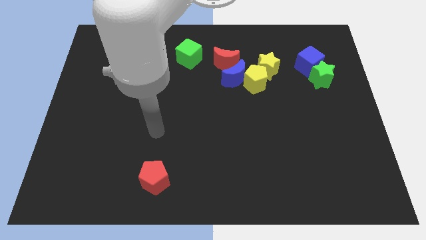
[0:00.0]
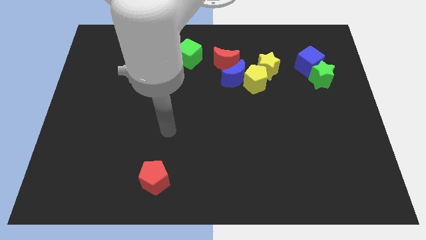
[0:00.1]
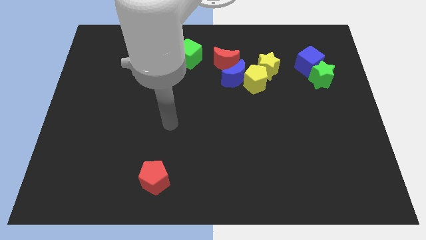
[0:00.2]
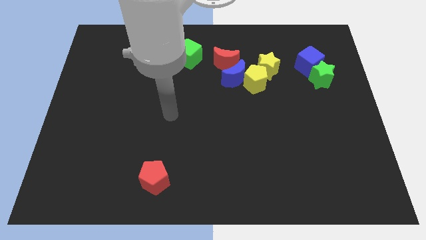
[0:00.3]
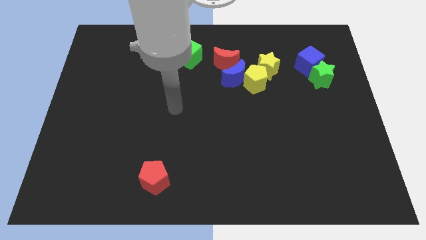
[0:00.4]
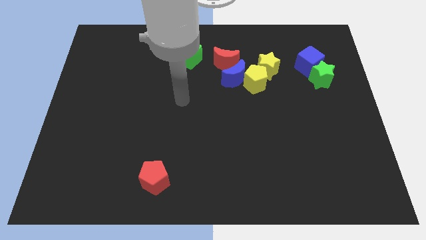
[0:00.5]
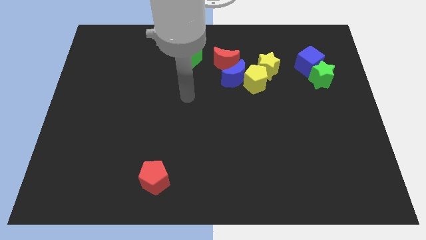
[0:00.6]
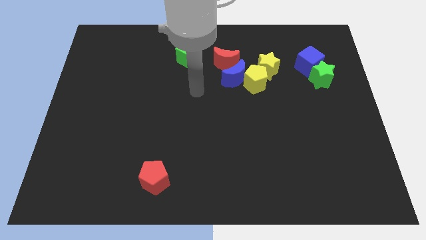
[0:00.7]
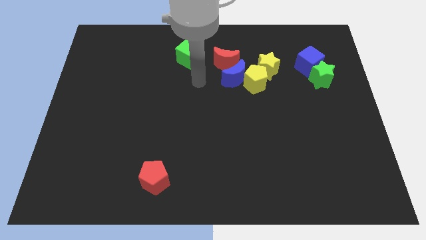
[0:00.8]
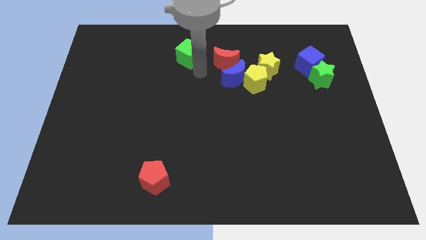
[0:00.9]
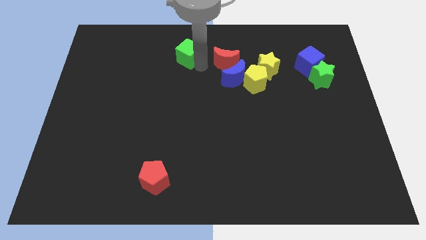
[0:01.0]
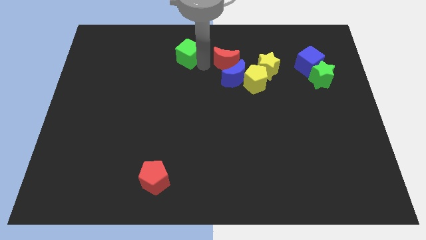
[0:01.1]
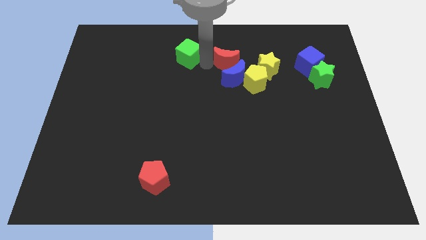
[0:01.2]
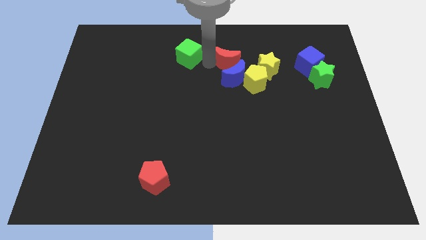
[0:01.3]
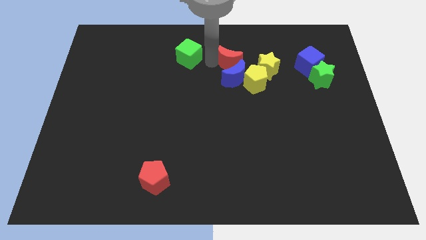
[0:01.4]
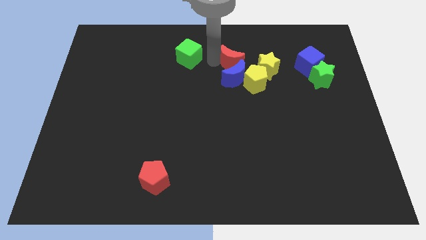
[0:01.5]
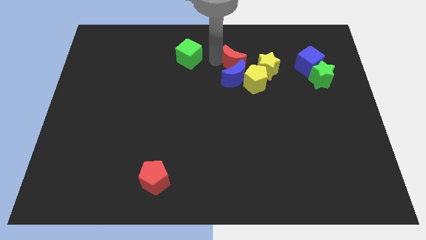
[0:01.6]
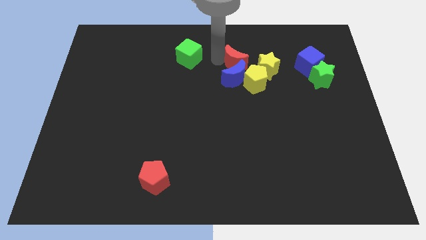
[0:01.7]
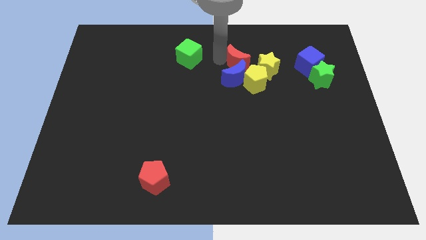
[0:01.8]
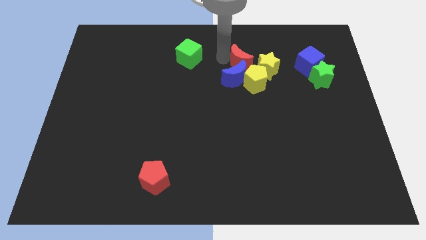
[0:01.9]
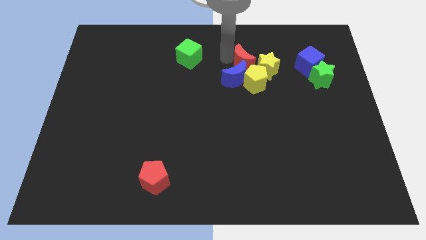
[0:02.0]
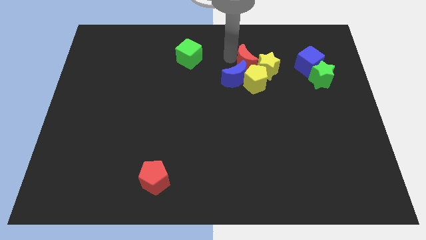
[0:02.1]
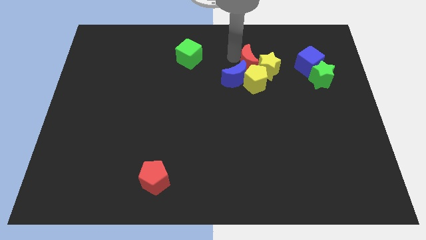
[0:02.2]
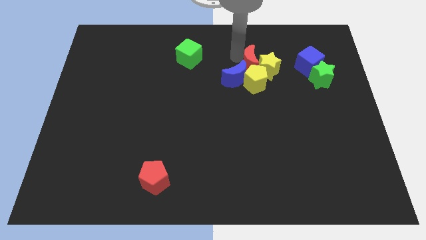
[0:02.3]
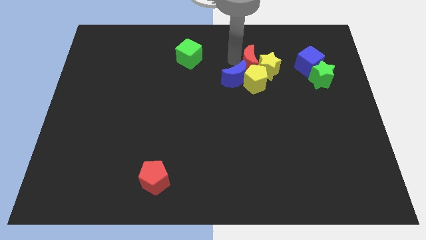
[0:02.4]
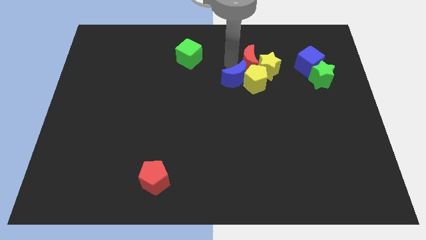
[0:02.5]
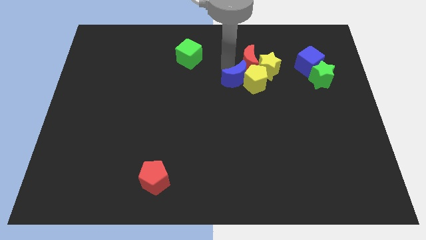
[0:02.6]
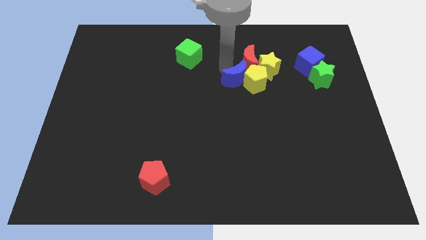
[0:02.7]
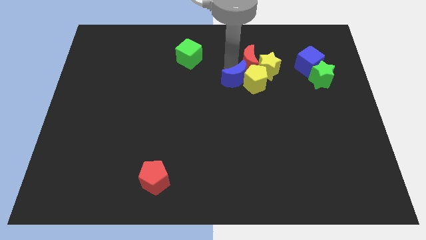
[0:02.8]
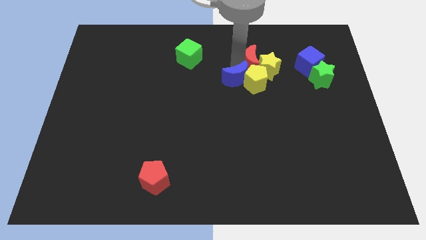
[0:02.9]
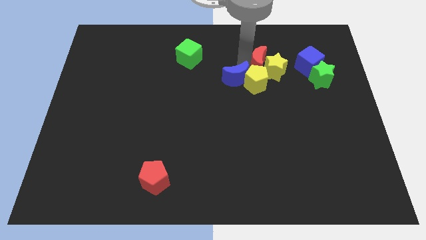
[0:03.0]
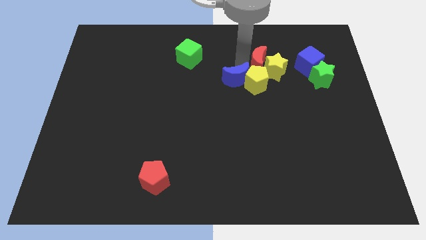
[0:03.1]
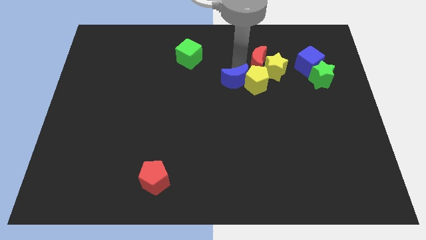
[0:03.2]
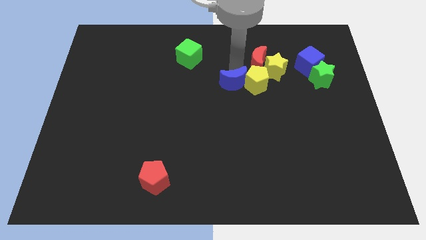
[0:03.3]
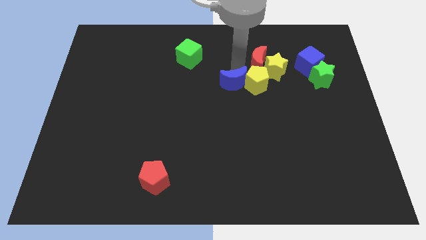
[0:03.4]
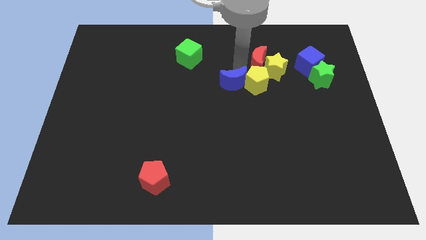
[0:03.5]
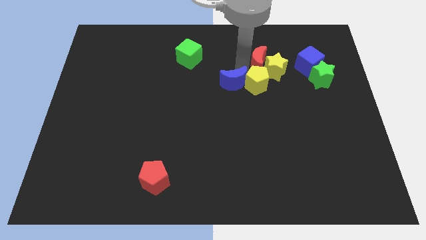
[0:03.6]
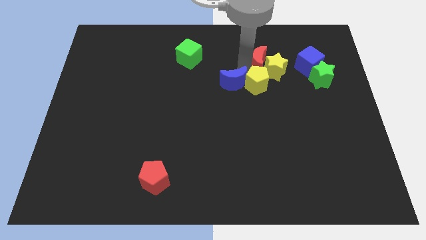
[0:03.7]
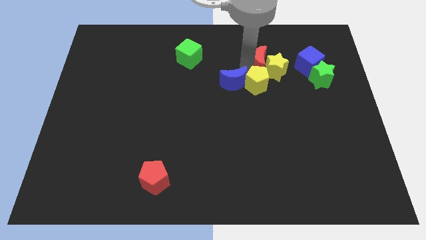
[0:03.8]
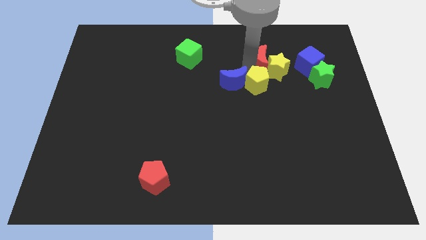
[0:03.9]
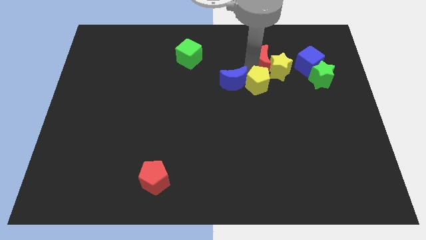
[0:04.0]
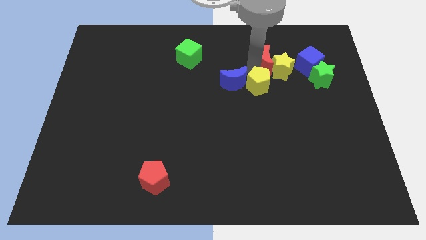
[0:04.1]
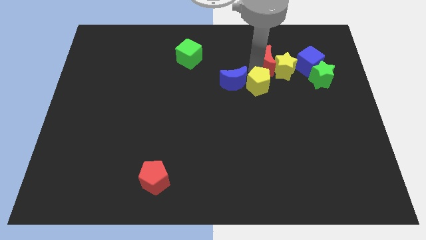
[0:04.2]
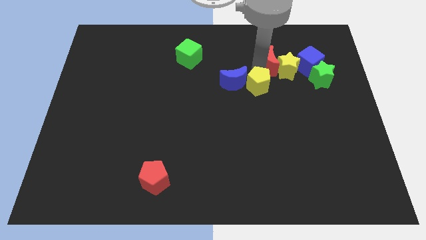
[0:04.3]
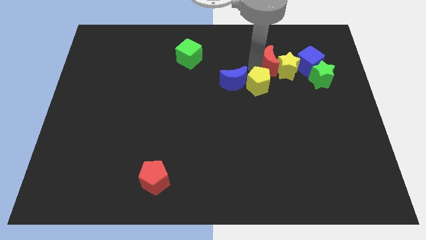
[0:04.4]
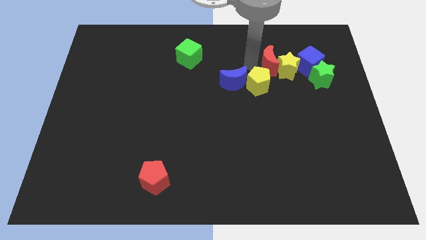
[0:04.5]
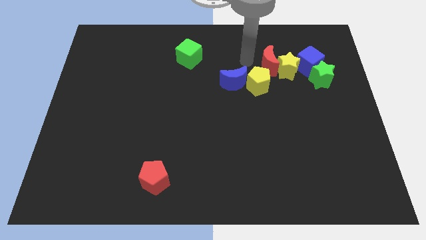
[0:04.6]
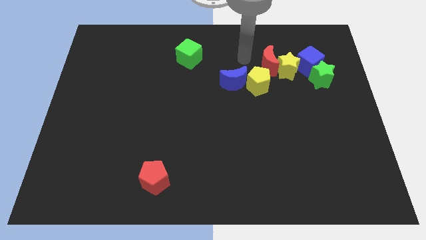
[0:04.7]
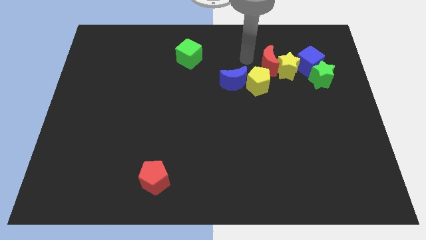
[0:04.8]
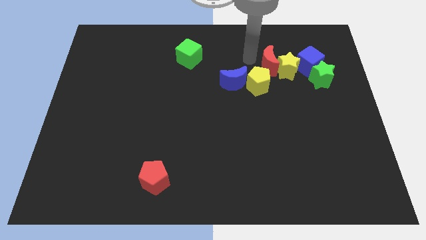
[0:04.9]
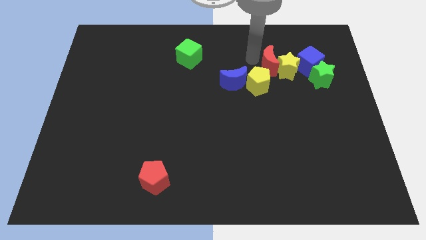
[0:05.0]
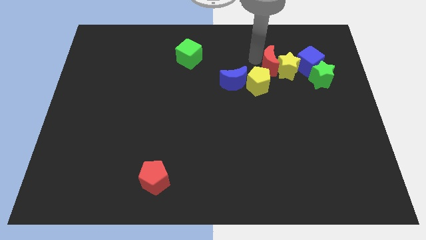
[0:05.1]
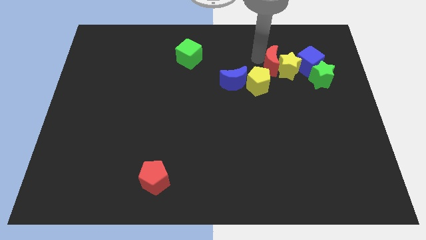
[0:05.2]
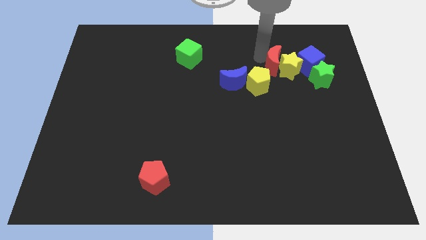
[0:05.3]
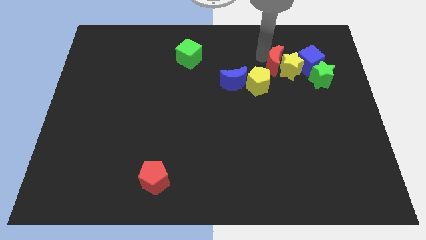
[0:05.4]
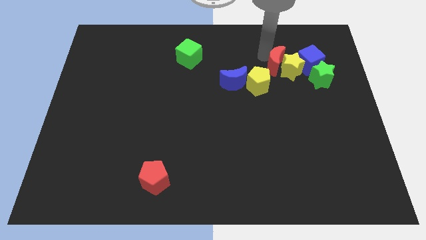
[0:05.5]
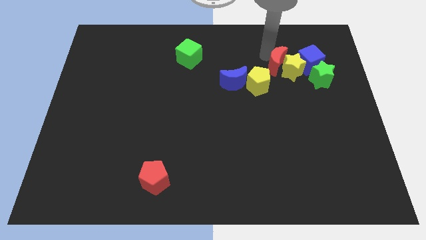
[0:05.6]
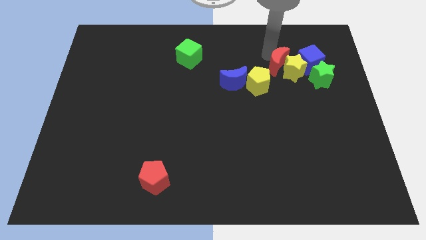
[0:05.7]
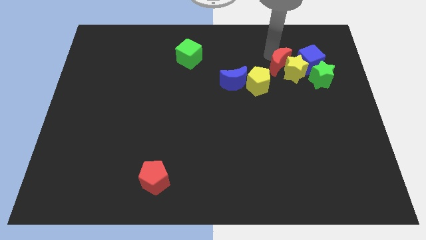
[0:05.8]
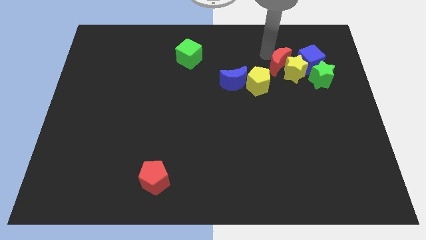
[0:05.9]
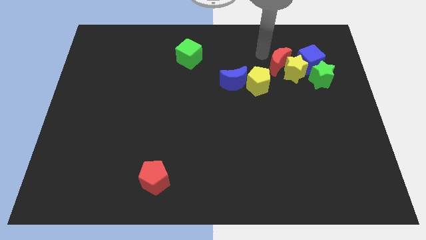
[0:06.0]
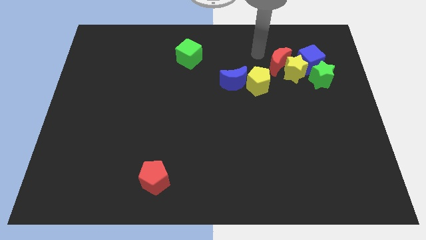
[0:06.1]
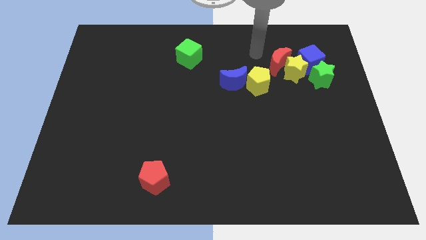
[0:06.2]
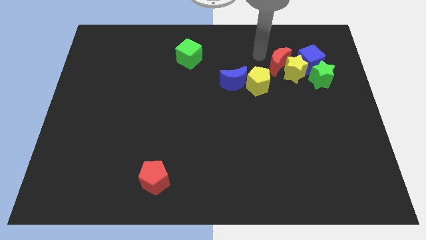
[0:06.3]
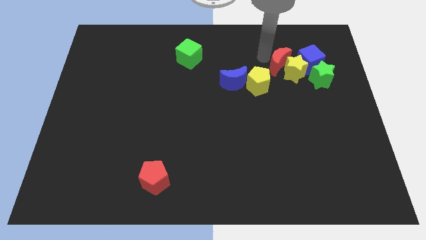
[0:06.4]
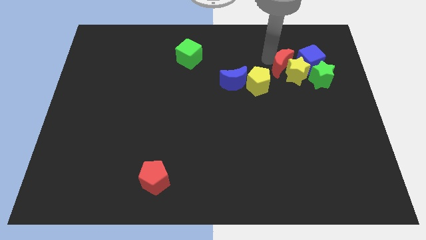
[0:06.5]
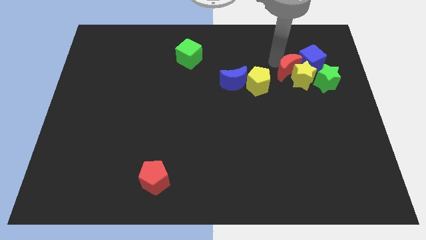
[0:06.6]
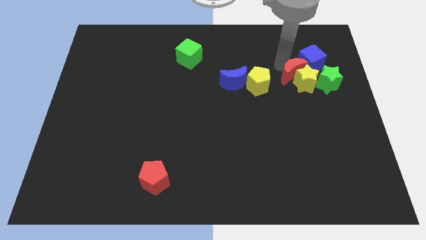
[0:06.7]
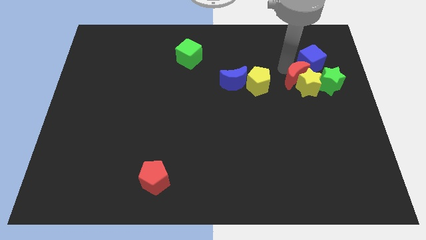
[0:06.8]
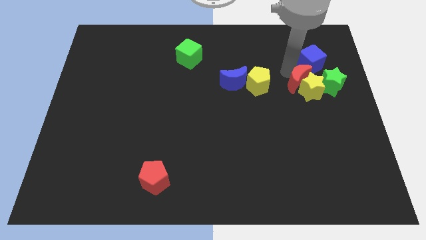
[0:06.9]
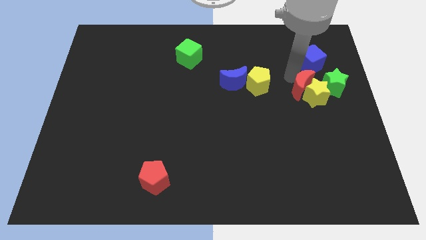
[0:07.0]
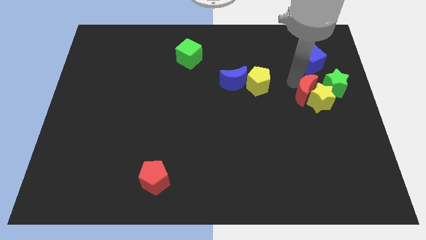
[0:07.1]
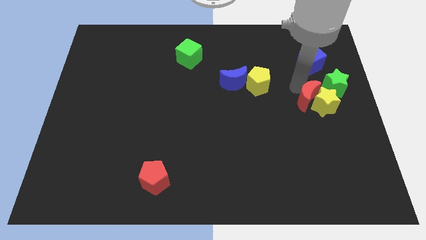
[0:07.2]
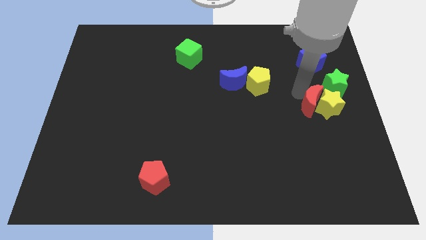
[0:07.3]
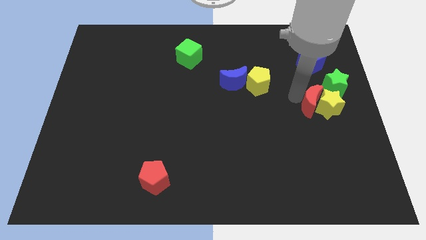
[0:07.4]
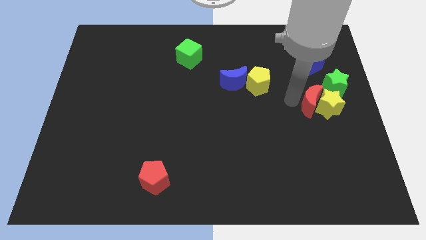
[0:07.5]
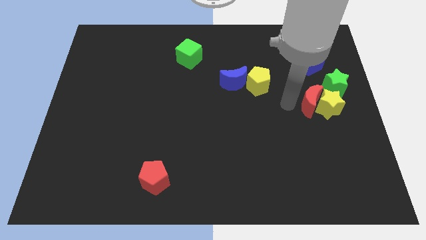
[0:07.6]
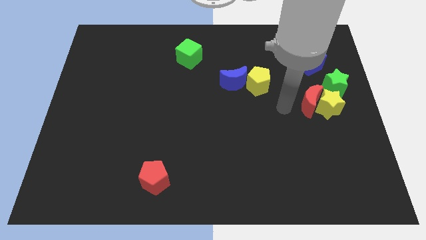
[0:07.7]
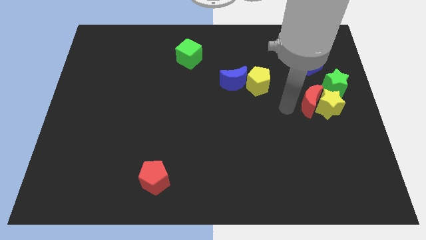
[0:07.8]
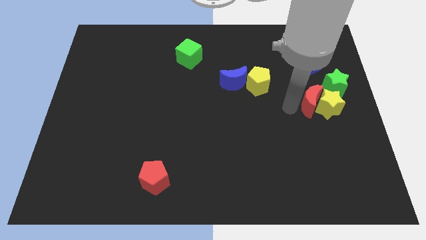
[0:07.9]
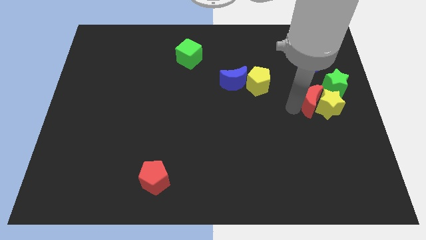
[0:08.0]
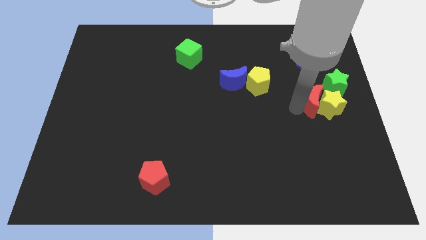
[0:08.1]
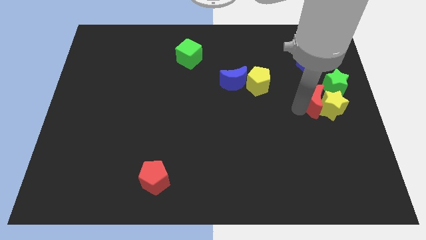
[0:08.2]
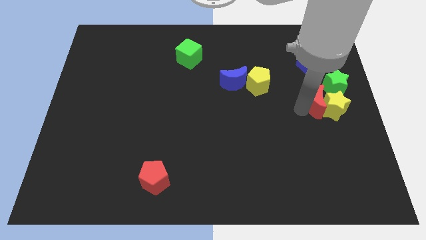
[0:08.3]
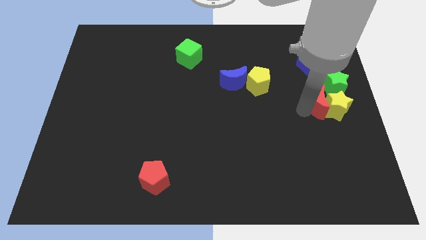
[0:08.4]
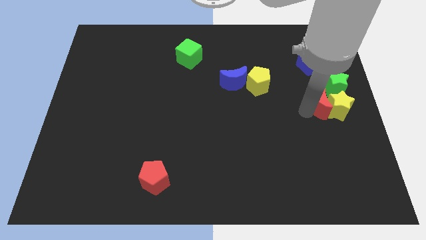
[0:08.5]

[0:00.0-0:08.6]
slide the red moon to the center right
